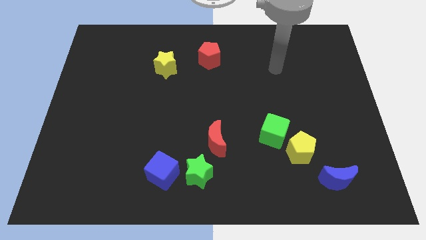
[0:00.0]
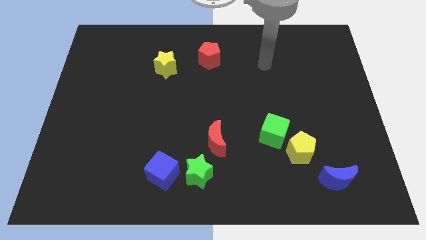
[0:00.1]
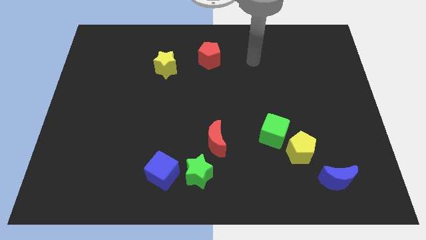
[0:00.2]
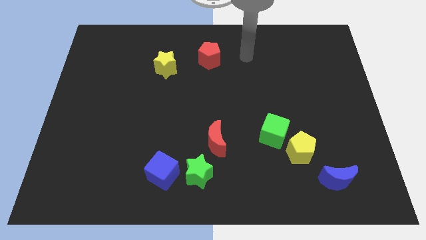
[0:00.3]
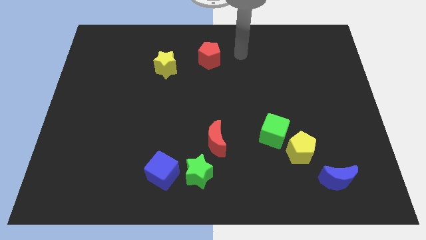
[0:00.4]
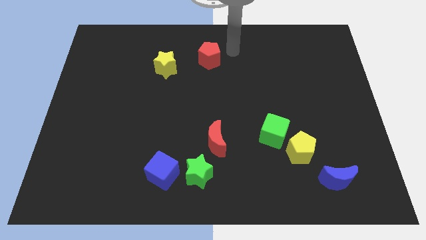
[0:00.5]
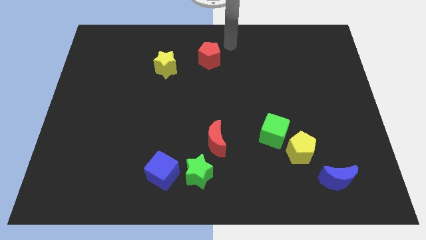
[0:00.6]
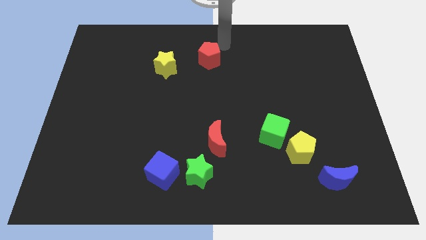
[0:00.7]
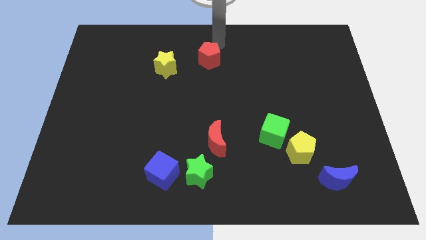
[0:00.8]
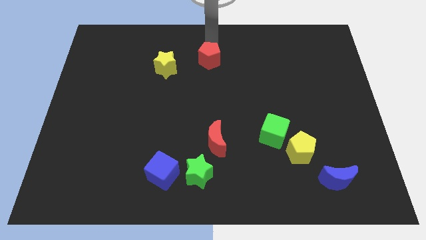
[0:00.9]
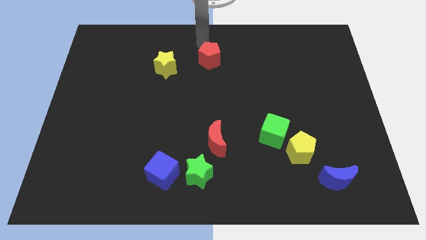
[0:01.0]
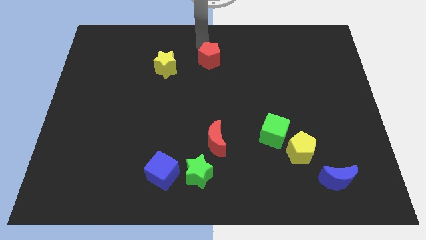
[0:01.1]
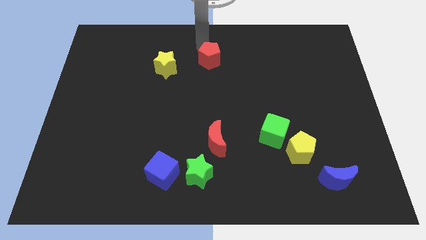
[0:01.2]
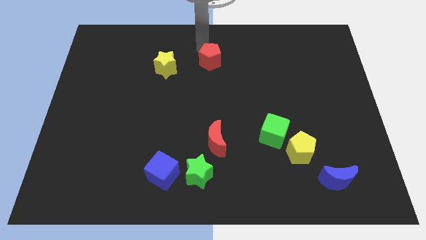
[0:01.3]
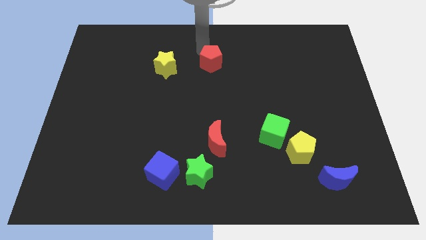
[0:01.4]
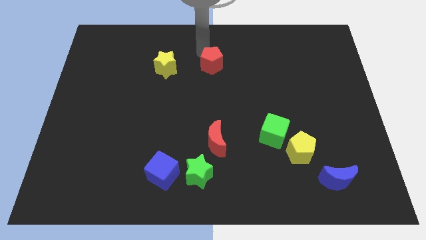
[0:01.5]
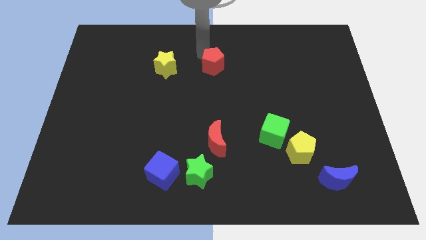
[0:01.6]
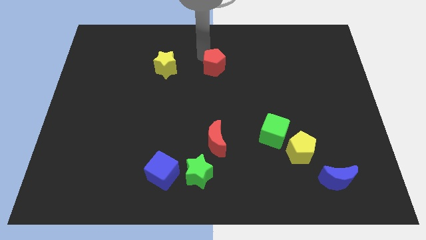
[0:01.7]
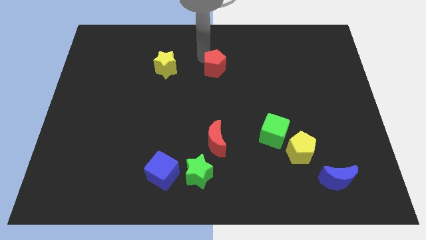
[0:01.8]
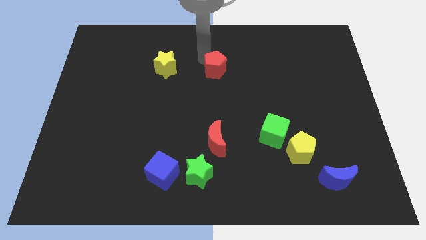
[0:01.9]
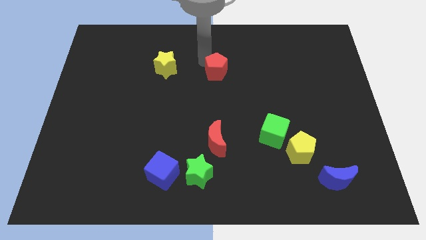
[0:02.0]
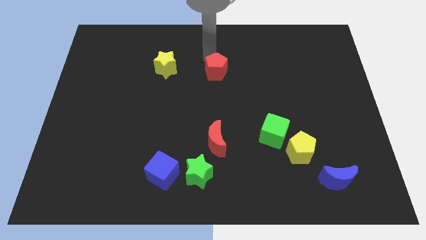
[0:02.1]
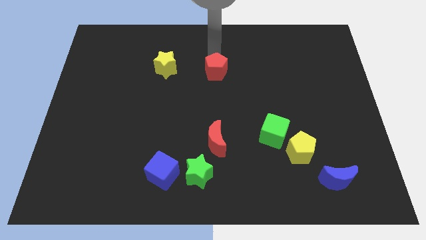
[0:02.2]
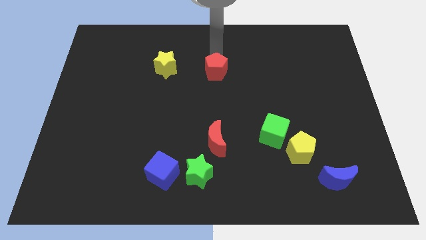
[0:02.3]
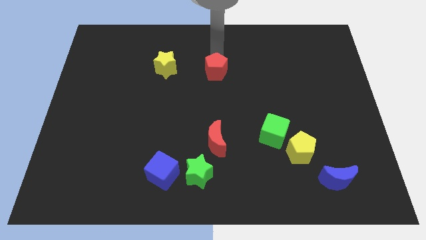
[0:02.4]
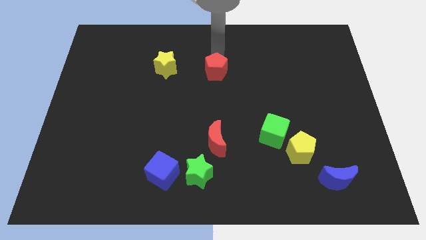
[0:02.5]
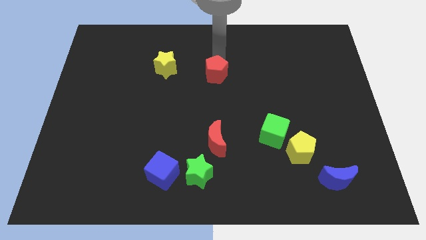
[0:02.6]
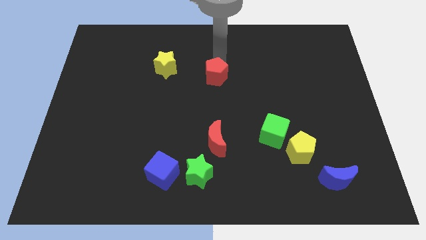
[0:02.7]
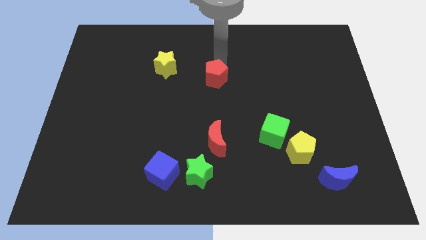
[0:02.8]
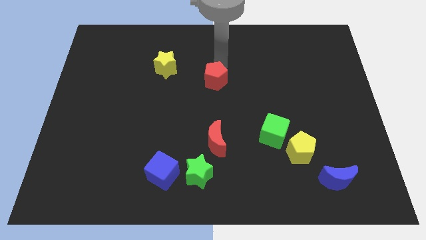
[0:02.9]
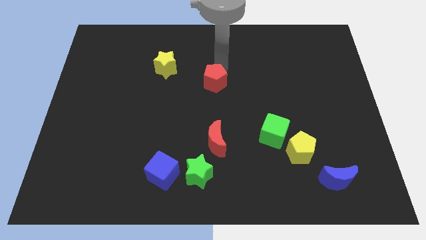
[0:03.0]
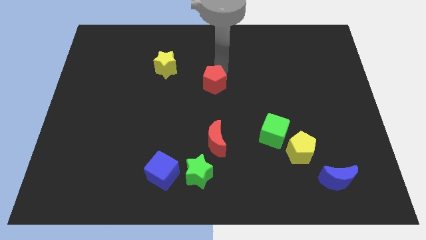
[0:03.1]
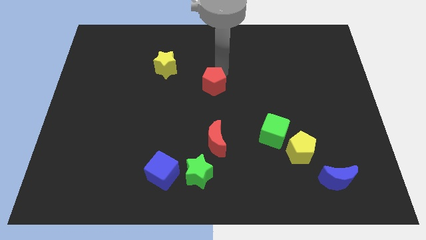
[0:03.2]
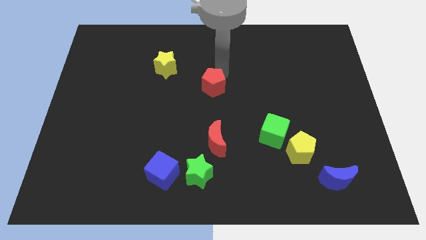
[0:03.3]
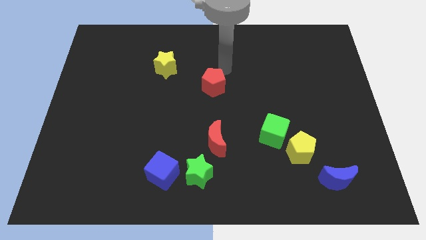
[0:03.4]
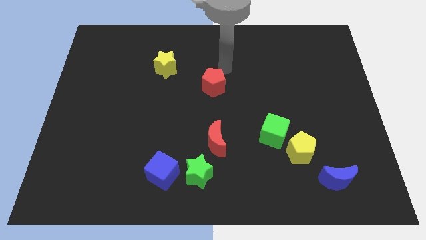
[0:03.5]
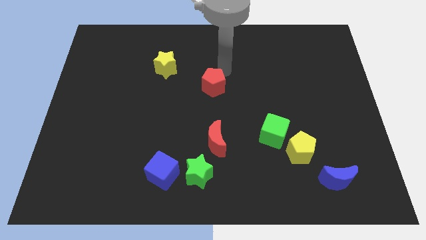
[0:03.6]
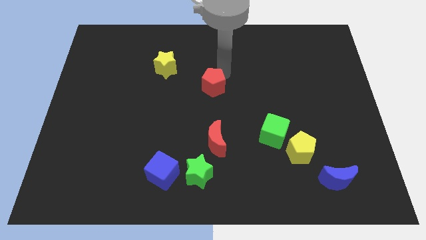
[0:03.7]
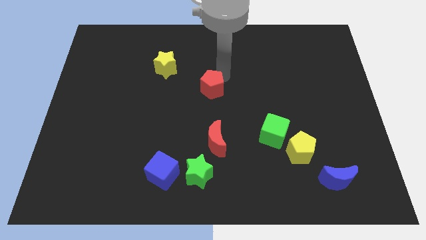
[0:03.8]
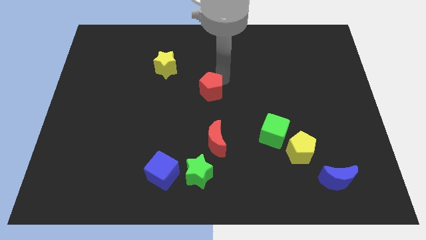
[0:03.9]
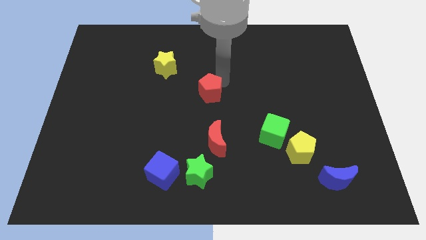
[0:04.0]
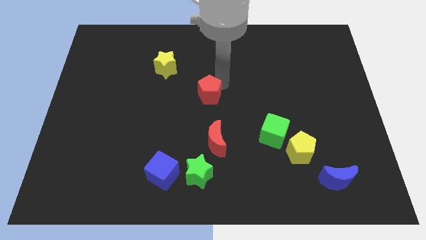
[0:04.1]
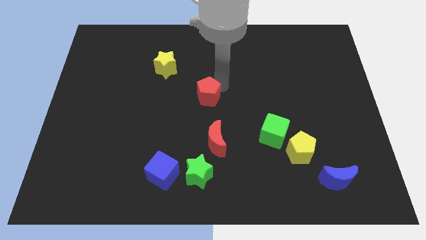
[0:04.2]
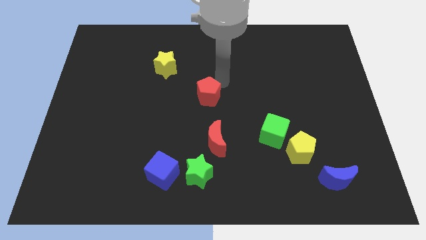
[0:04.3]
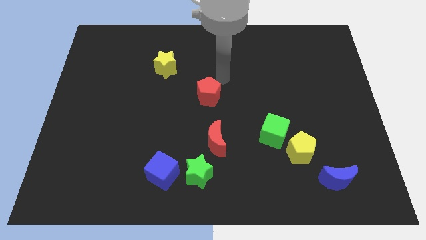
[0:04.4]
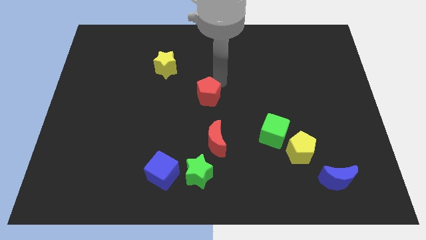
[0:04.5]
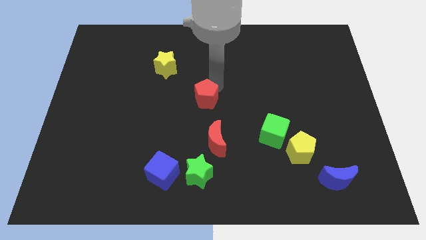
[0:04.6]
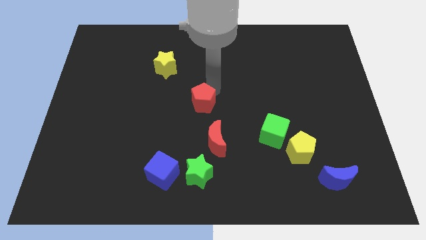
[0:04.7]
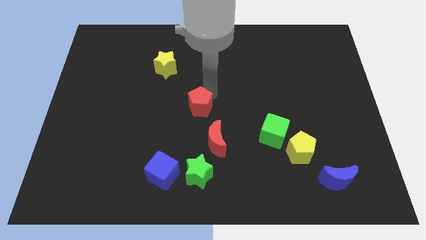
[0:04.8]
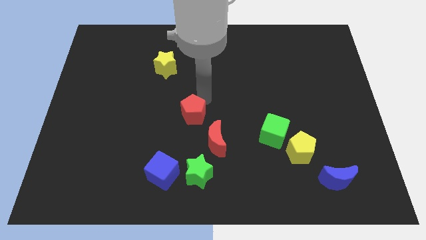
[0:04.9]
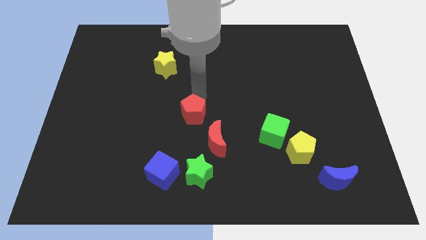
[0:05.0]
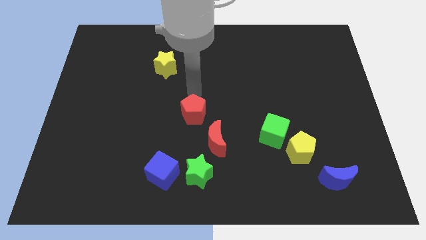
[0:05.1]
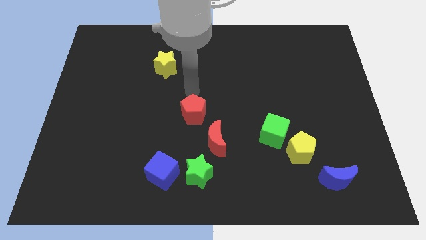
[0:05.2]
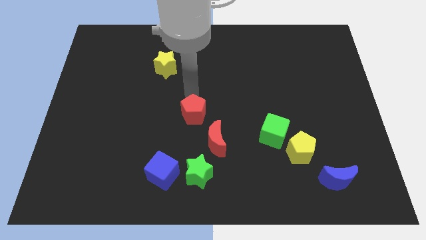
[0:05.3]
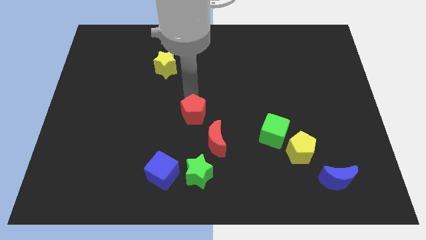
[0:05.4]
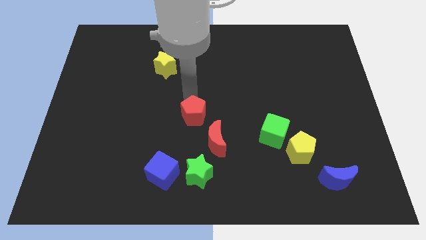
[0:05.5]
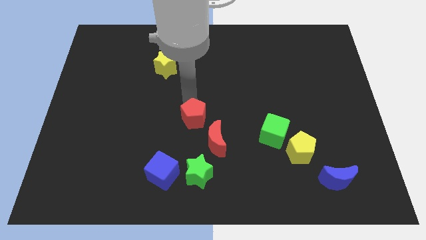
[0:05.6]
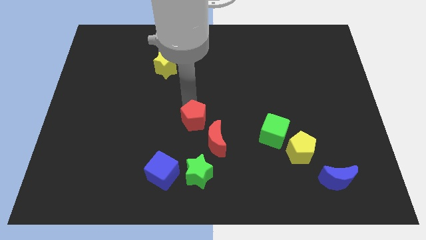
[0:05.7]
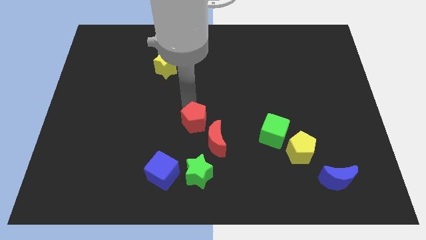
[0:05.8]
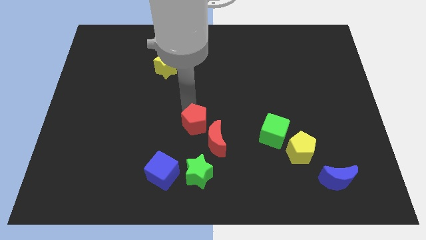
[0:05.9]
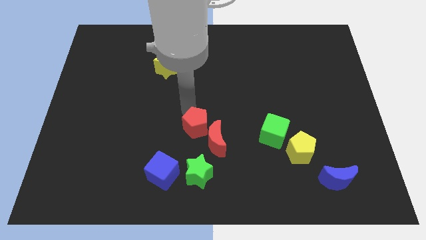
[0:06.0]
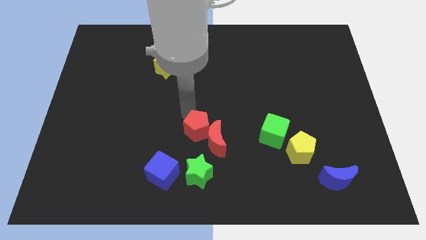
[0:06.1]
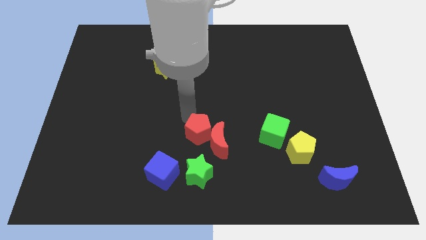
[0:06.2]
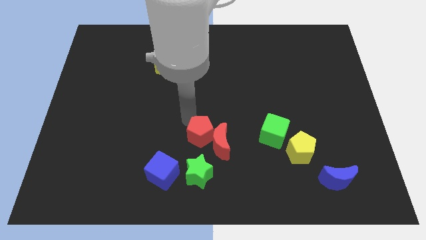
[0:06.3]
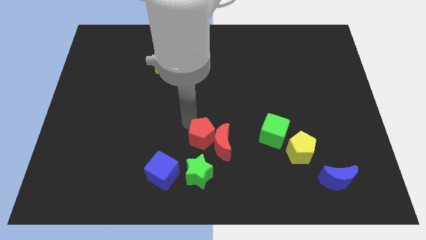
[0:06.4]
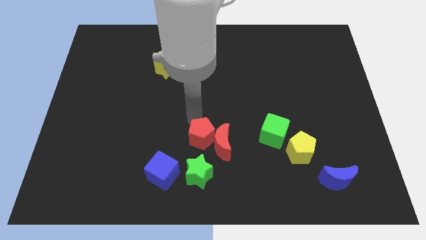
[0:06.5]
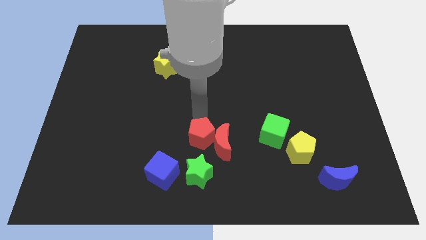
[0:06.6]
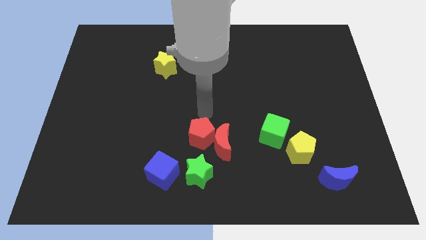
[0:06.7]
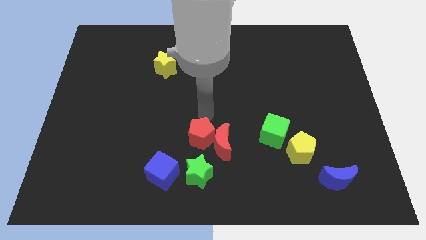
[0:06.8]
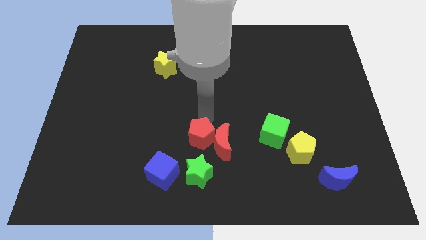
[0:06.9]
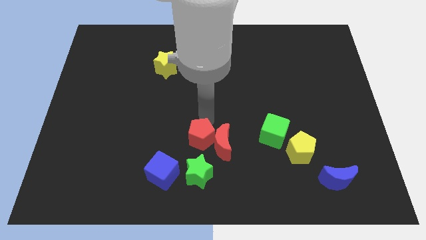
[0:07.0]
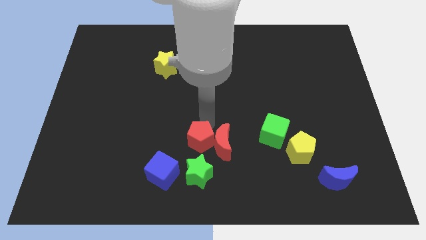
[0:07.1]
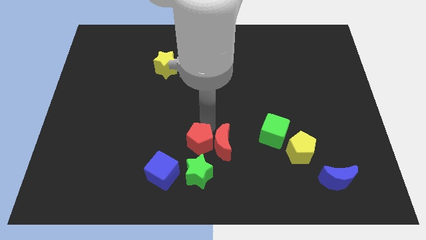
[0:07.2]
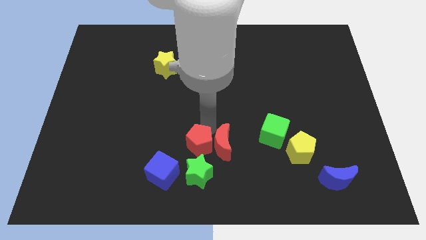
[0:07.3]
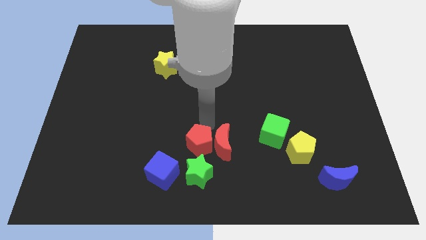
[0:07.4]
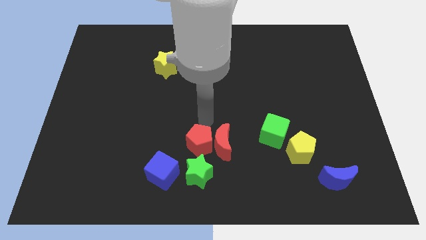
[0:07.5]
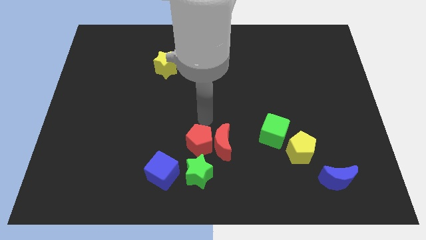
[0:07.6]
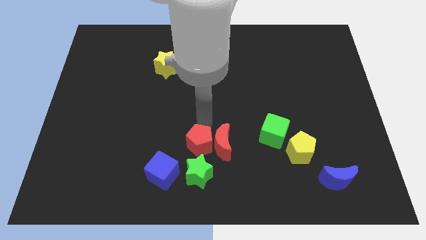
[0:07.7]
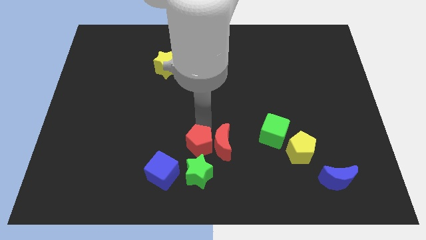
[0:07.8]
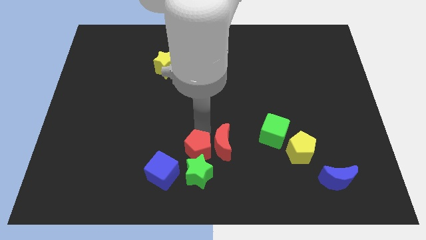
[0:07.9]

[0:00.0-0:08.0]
move the red pentagon next to the green star
